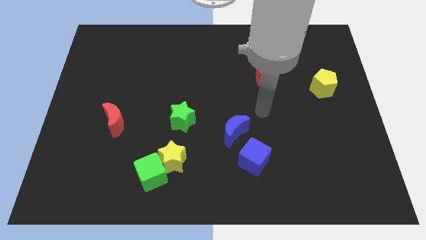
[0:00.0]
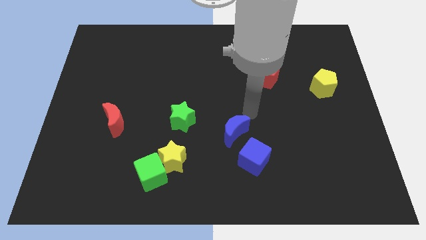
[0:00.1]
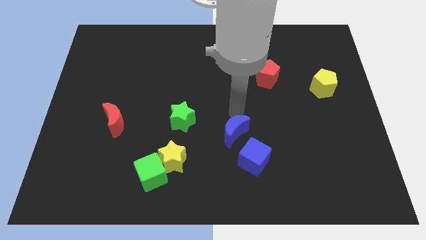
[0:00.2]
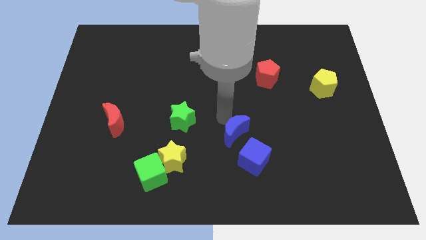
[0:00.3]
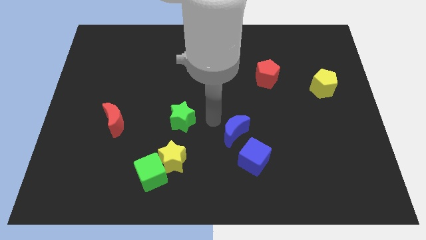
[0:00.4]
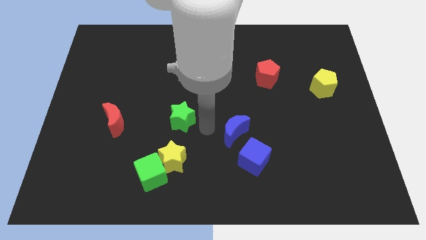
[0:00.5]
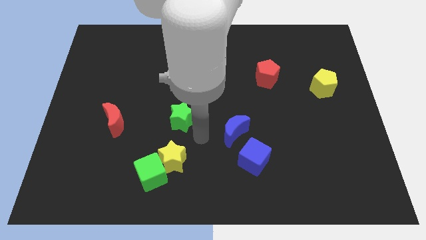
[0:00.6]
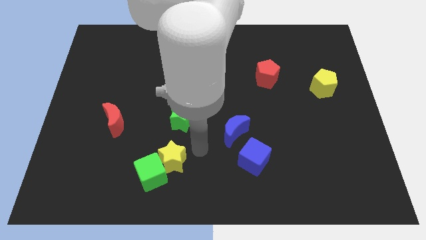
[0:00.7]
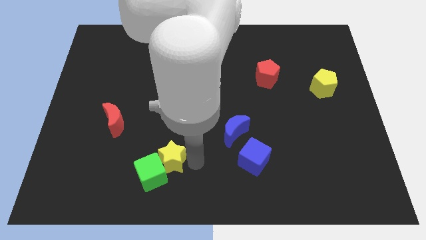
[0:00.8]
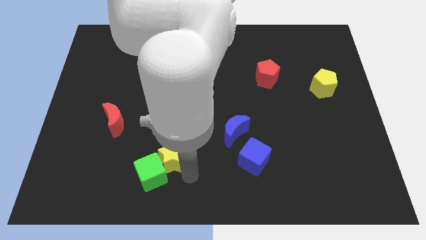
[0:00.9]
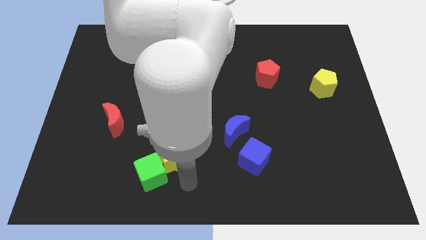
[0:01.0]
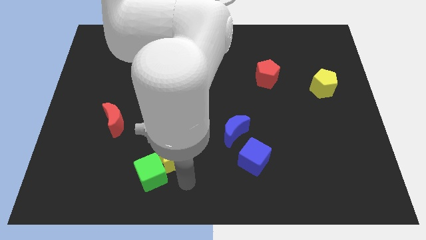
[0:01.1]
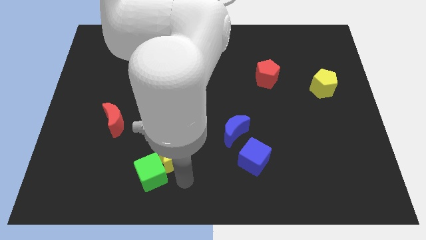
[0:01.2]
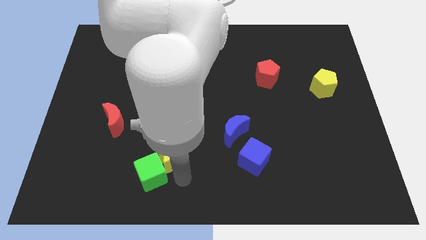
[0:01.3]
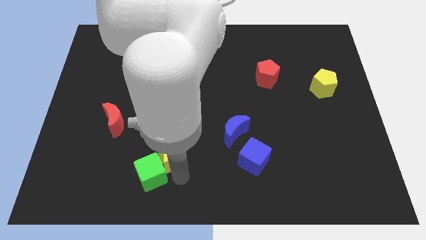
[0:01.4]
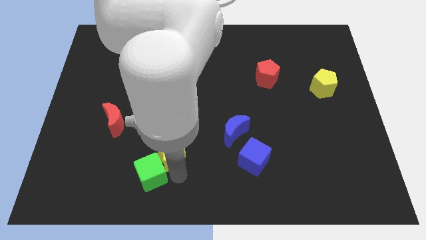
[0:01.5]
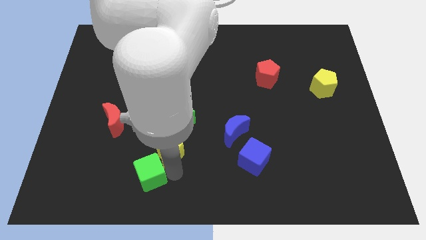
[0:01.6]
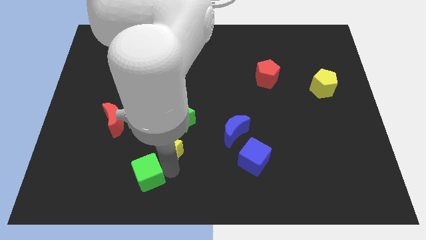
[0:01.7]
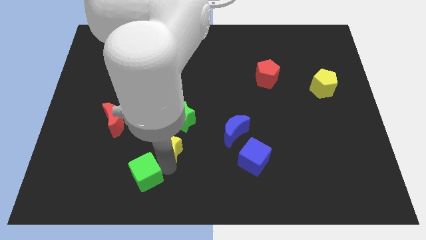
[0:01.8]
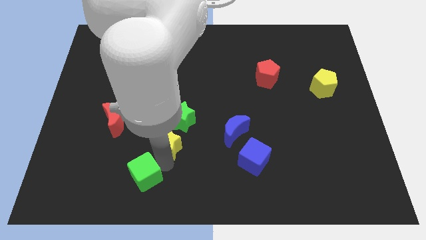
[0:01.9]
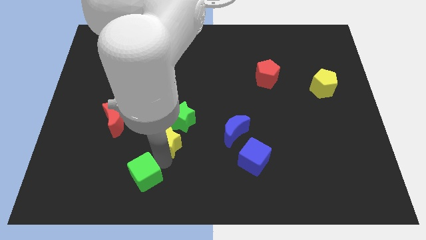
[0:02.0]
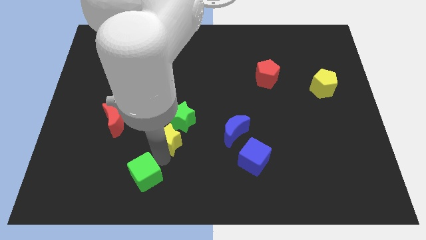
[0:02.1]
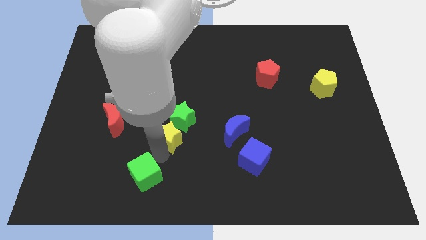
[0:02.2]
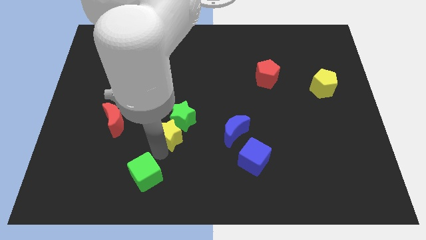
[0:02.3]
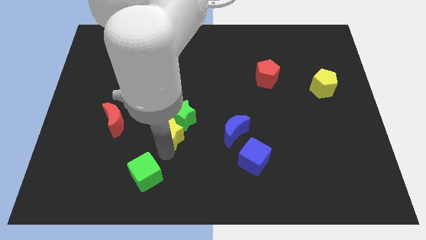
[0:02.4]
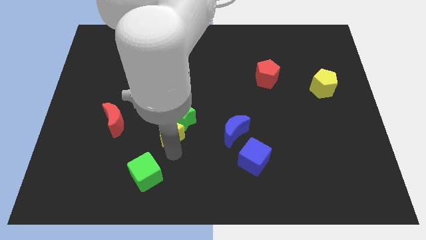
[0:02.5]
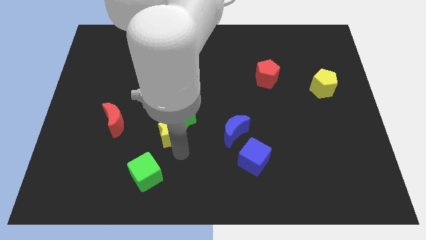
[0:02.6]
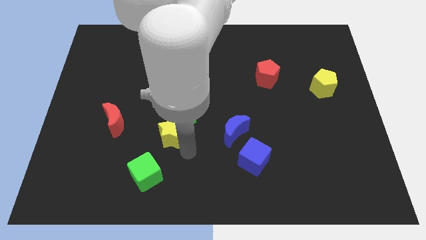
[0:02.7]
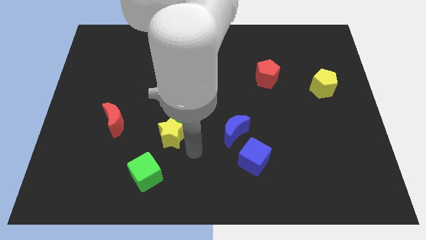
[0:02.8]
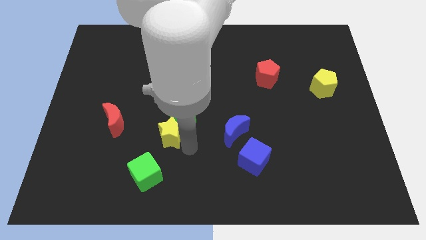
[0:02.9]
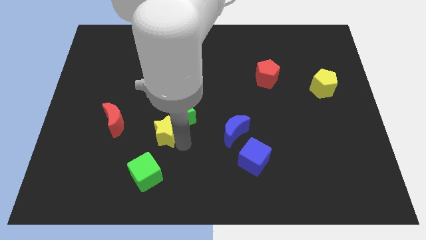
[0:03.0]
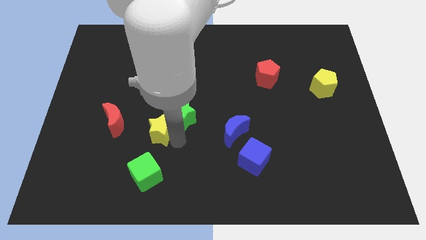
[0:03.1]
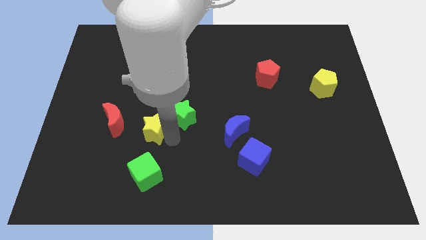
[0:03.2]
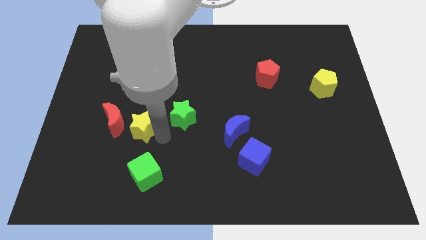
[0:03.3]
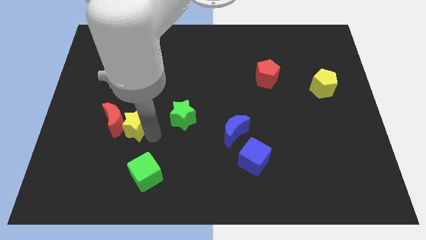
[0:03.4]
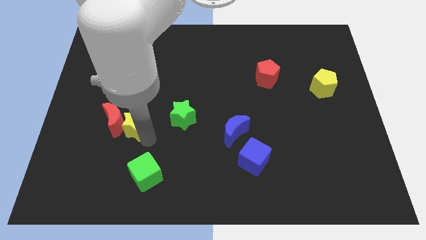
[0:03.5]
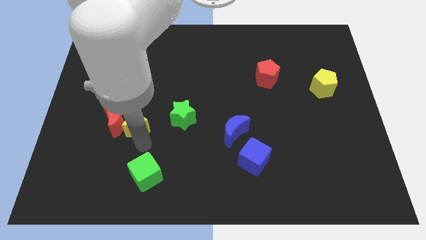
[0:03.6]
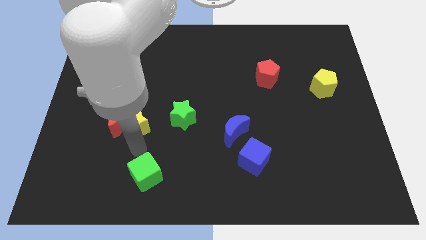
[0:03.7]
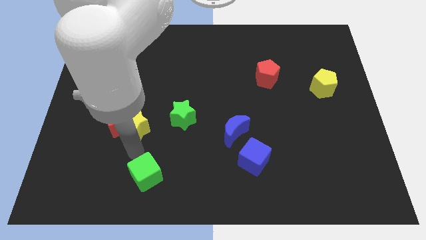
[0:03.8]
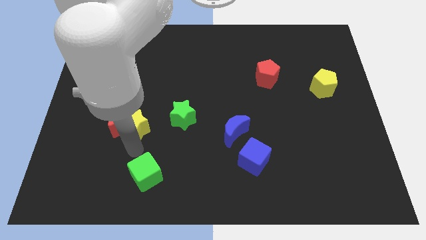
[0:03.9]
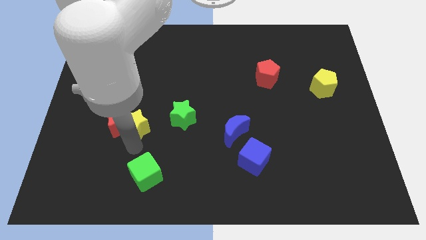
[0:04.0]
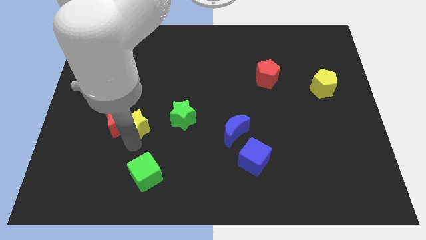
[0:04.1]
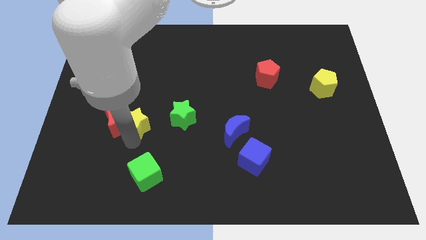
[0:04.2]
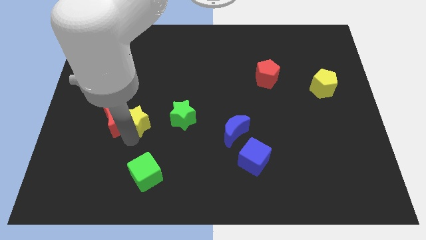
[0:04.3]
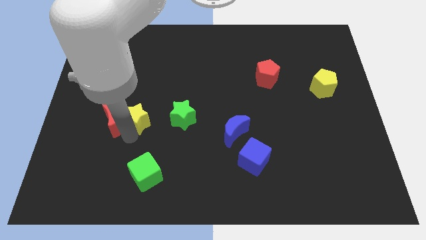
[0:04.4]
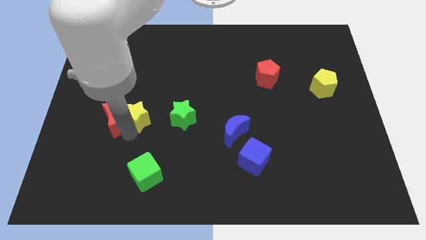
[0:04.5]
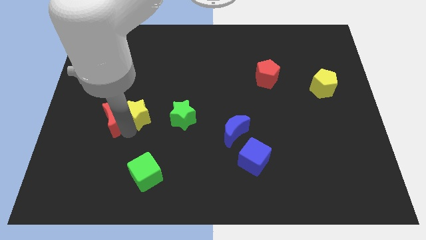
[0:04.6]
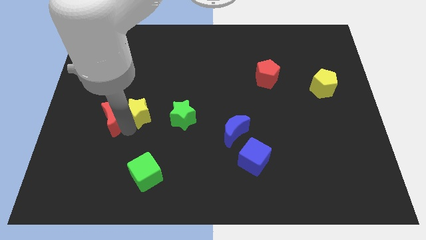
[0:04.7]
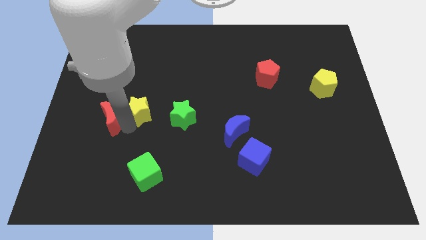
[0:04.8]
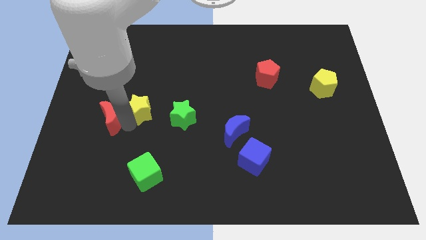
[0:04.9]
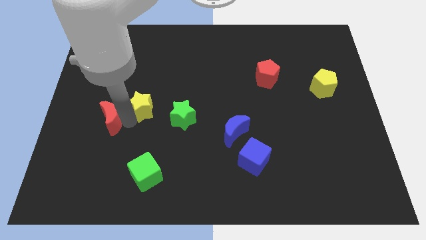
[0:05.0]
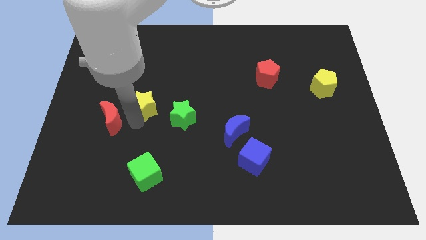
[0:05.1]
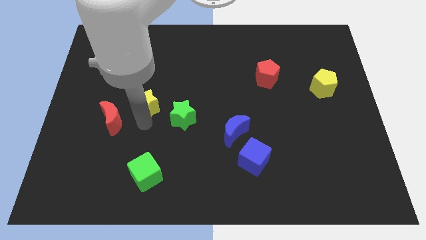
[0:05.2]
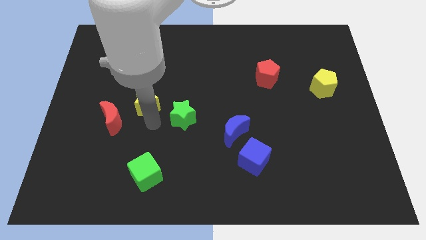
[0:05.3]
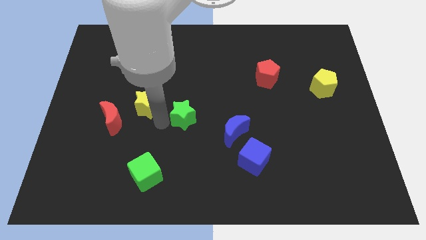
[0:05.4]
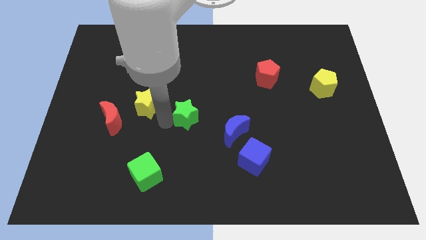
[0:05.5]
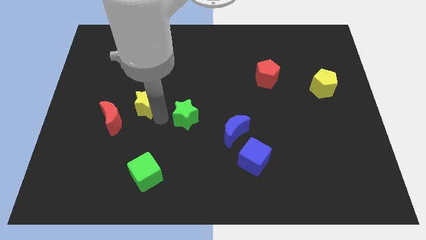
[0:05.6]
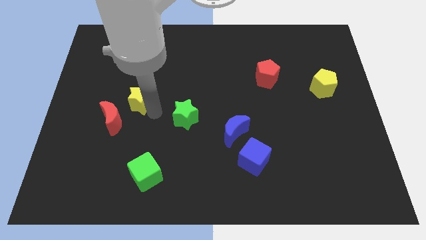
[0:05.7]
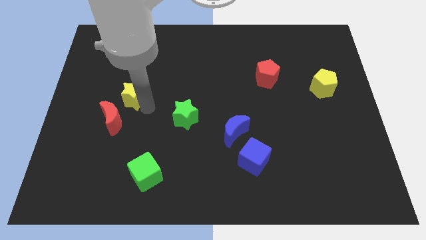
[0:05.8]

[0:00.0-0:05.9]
put the yellow star to the top of the red moon

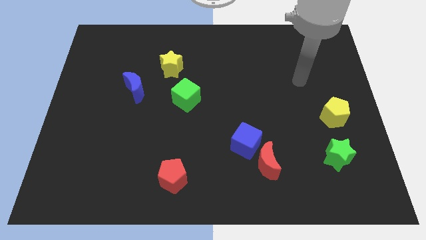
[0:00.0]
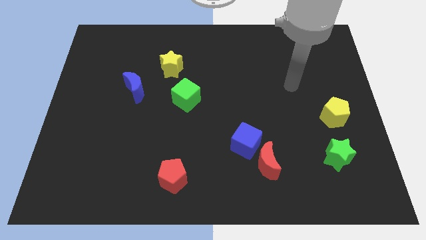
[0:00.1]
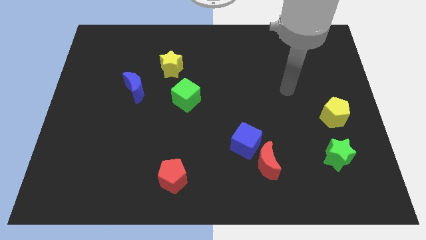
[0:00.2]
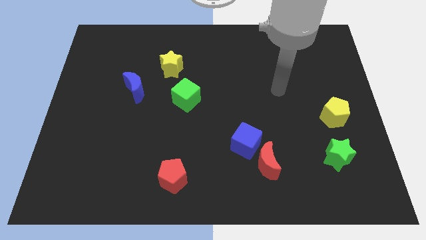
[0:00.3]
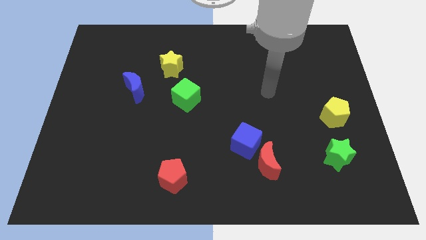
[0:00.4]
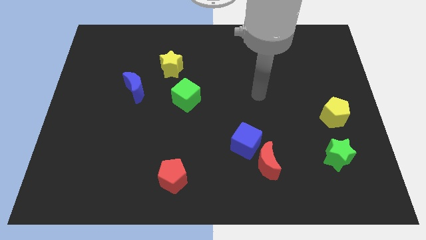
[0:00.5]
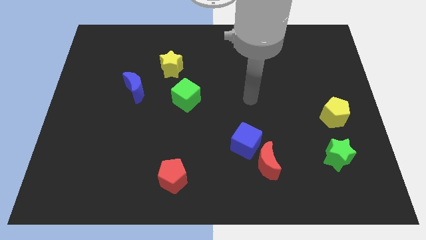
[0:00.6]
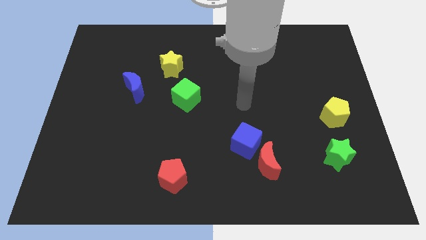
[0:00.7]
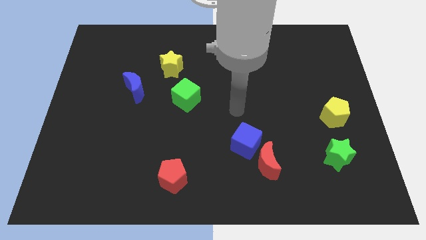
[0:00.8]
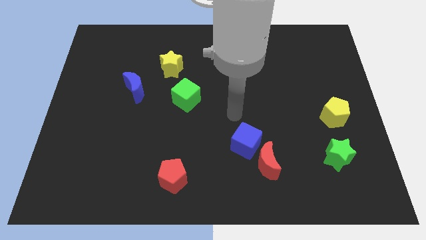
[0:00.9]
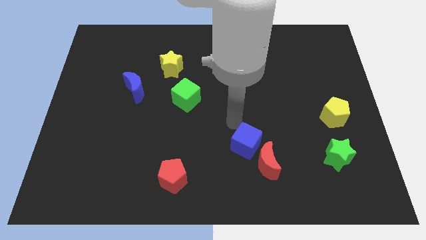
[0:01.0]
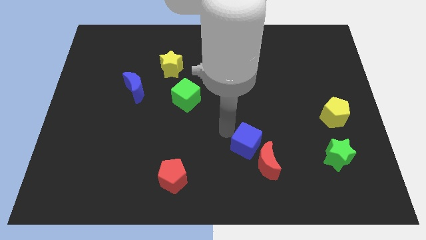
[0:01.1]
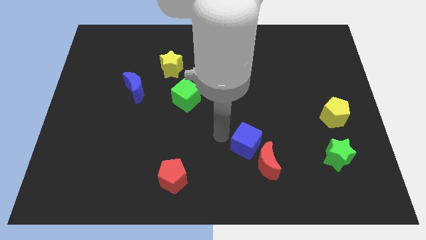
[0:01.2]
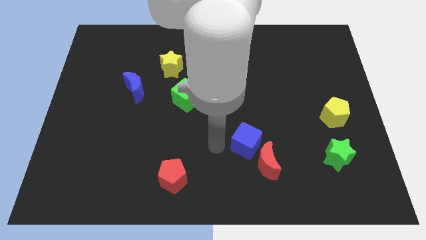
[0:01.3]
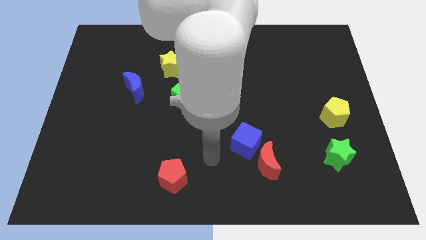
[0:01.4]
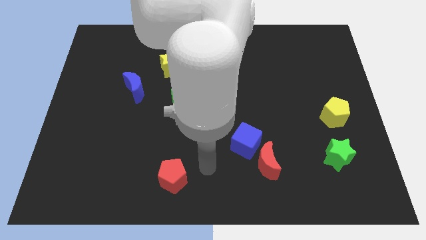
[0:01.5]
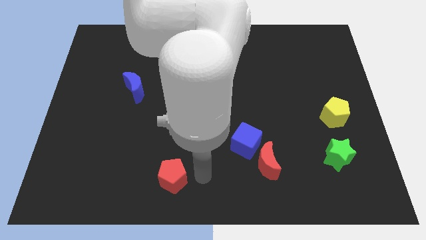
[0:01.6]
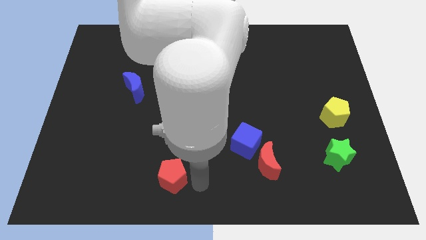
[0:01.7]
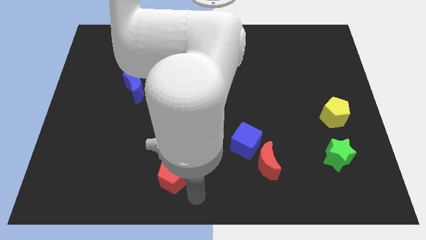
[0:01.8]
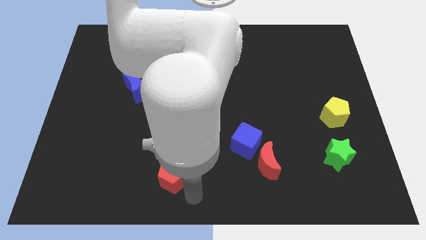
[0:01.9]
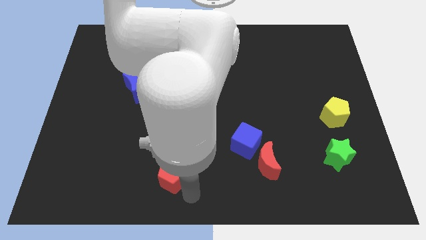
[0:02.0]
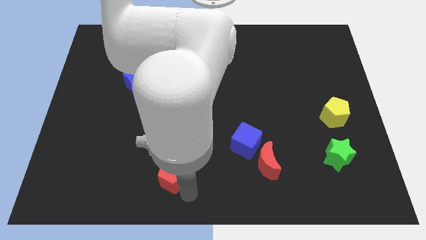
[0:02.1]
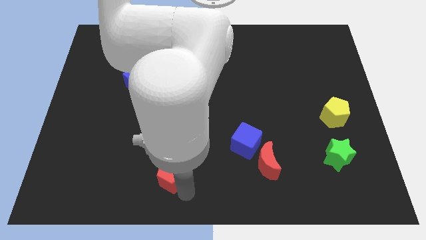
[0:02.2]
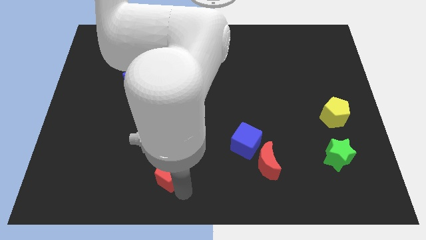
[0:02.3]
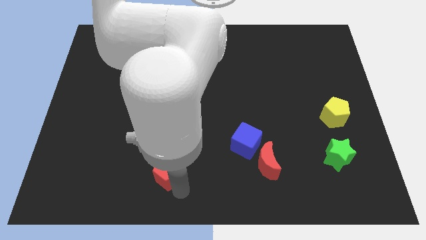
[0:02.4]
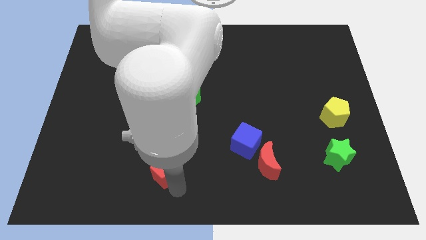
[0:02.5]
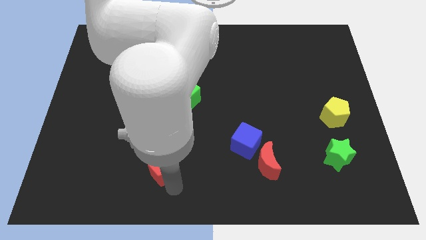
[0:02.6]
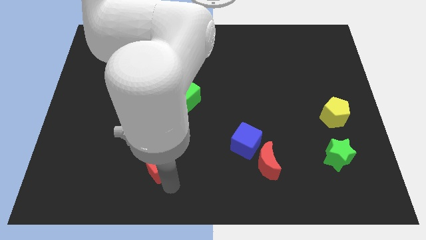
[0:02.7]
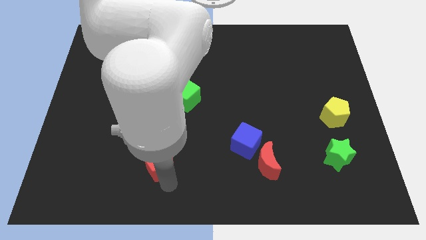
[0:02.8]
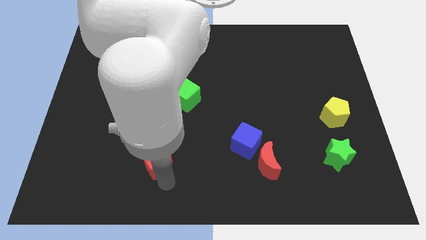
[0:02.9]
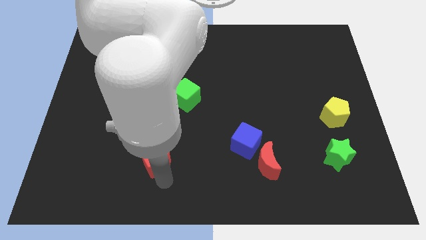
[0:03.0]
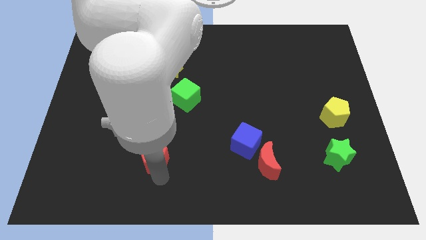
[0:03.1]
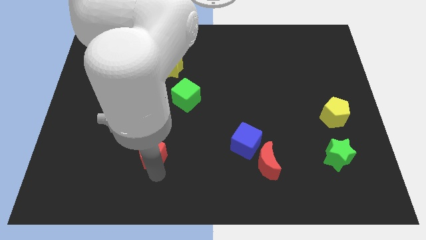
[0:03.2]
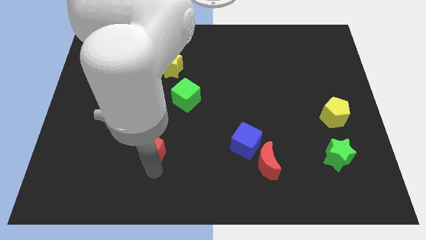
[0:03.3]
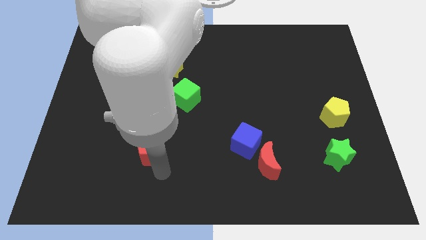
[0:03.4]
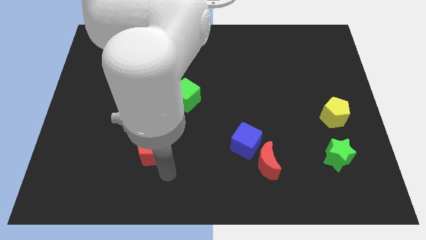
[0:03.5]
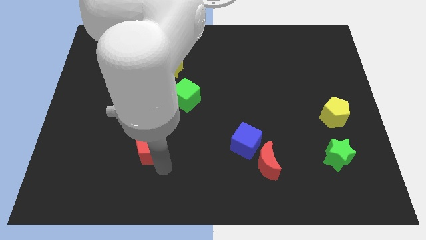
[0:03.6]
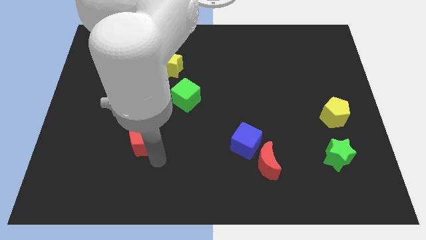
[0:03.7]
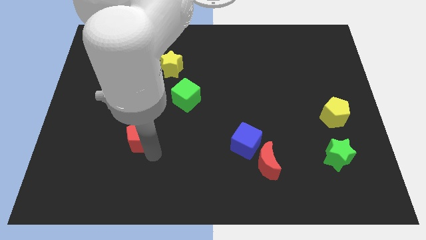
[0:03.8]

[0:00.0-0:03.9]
put the red pentagon to the bottom of the blue moon
